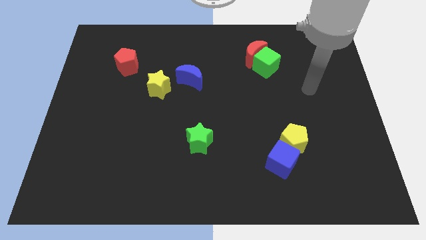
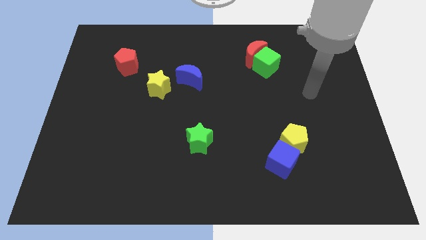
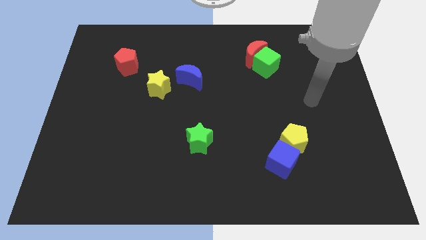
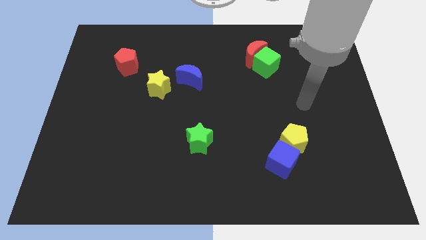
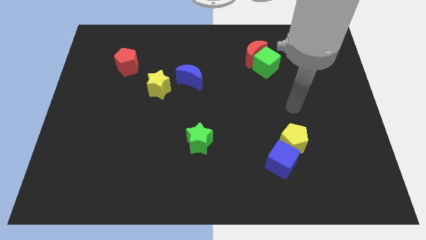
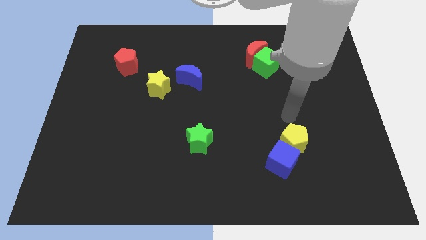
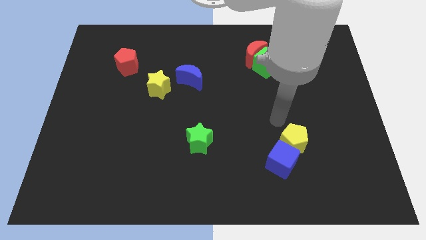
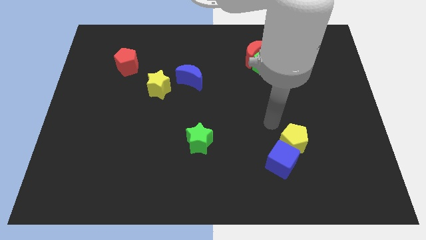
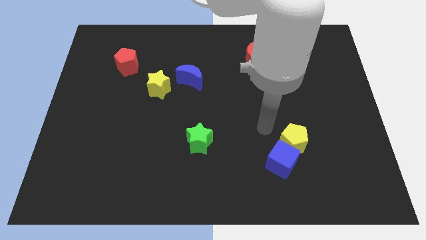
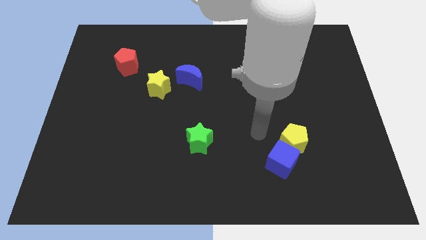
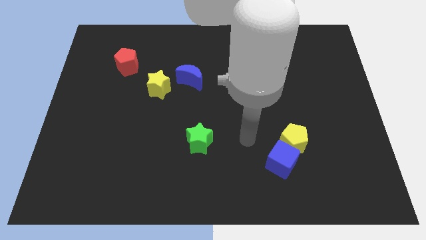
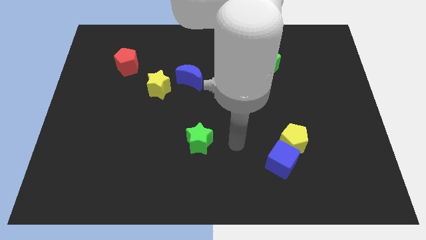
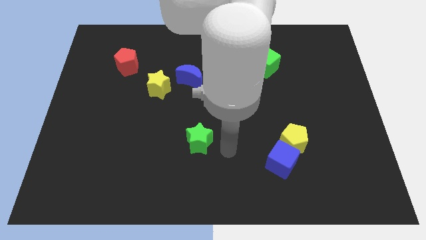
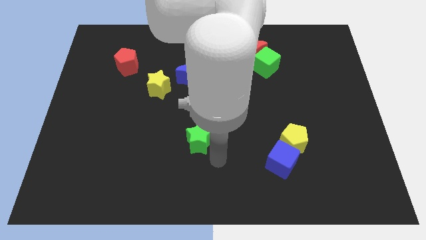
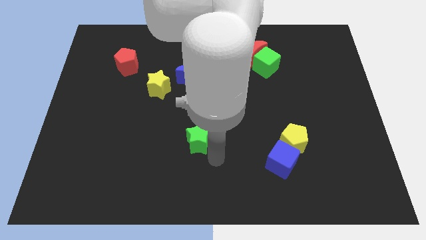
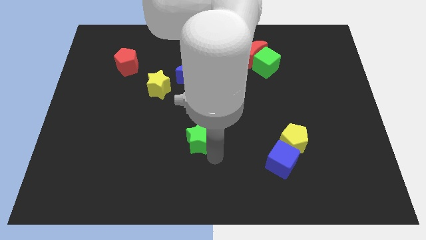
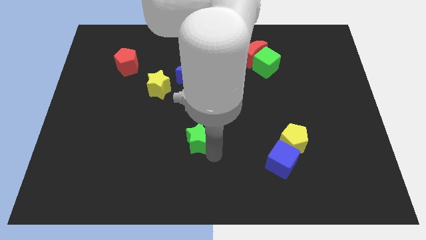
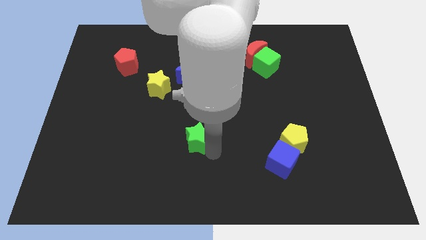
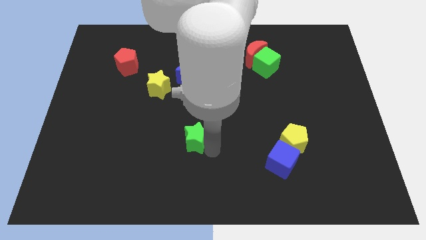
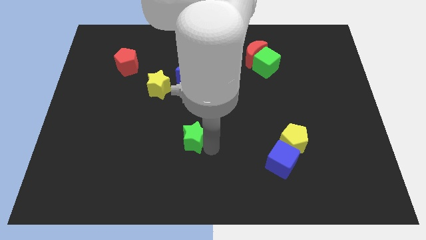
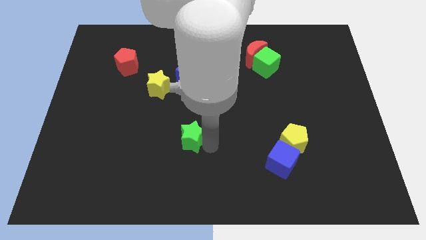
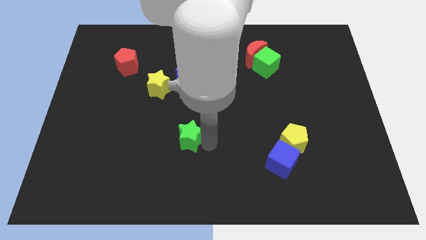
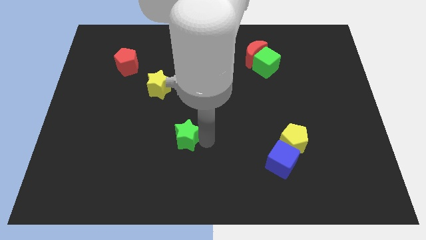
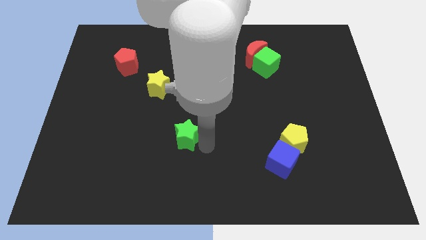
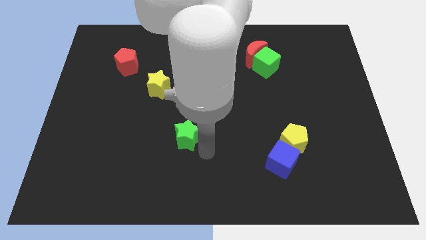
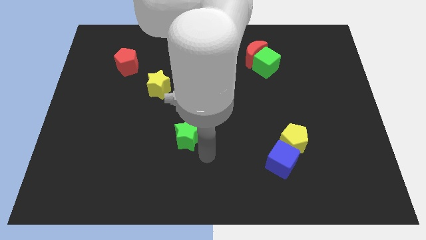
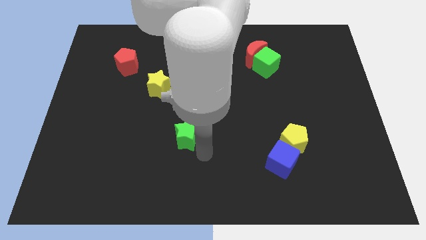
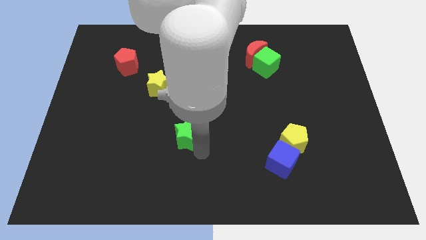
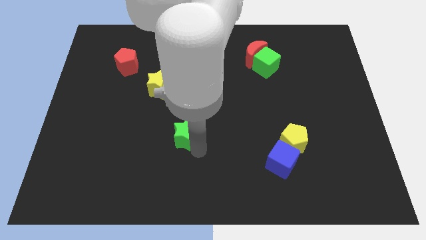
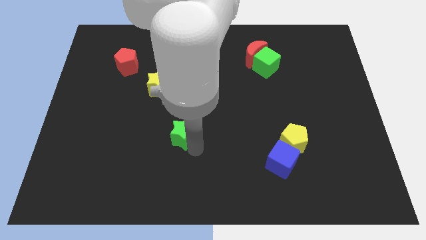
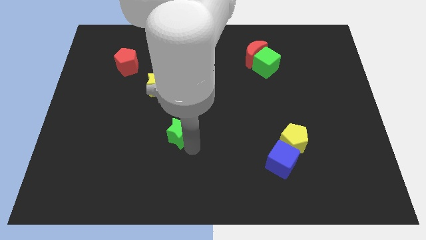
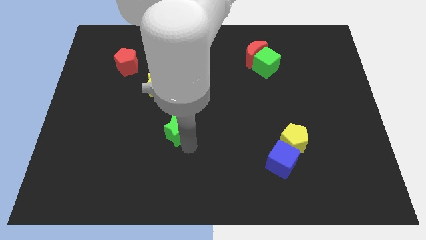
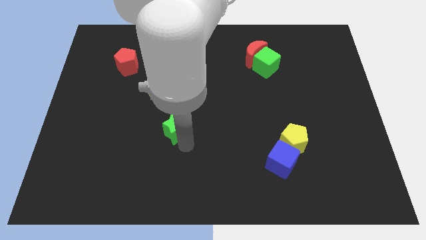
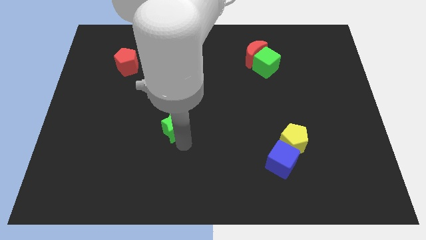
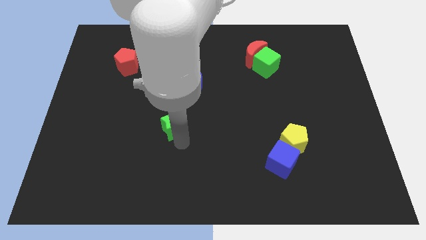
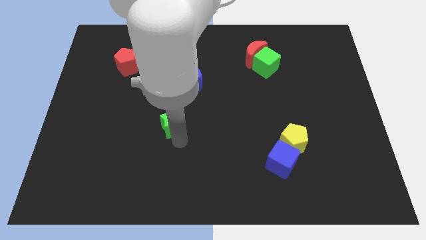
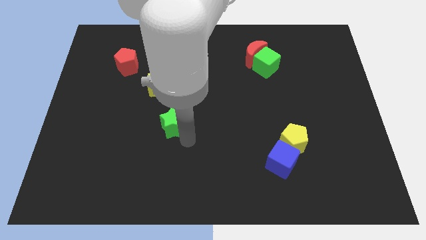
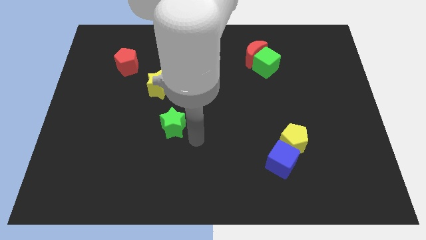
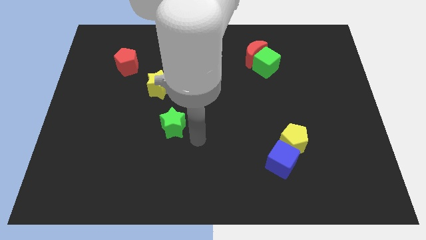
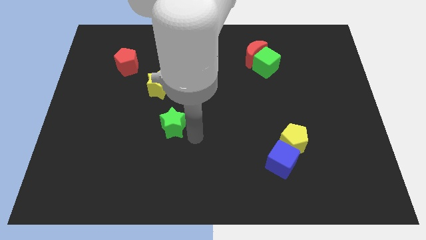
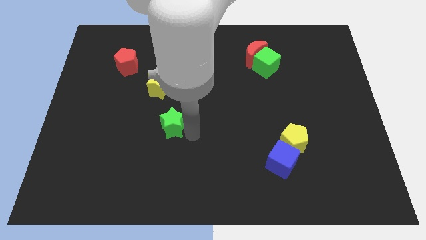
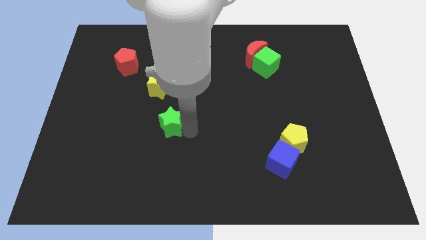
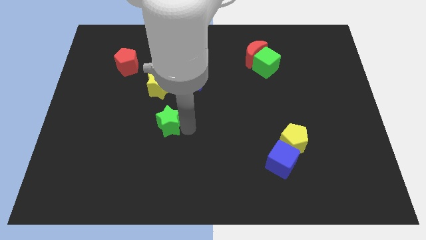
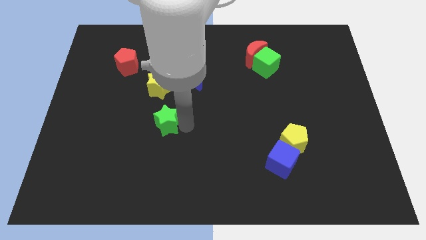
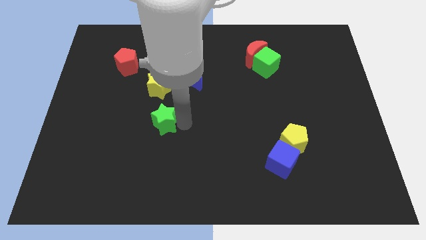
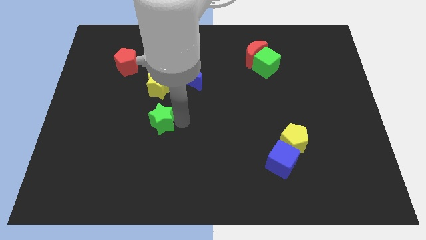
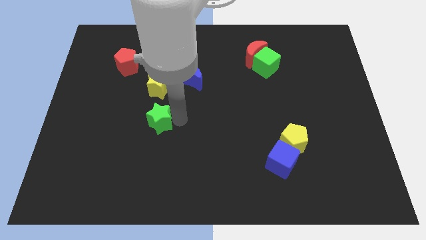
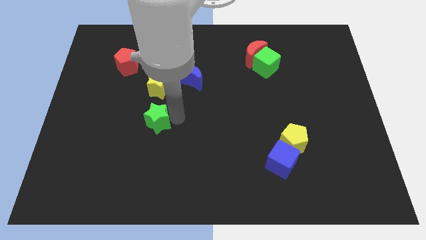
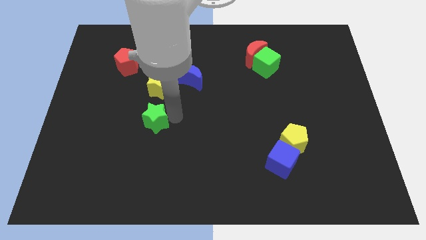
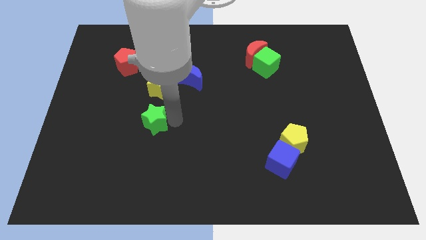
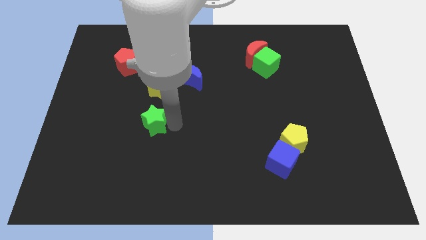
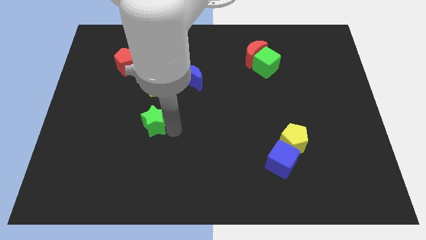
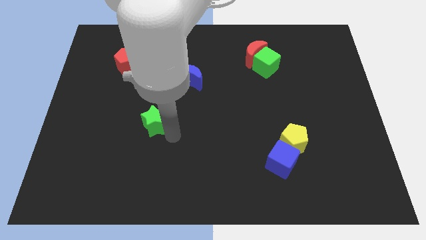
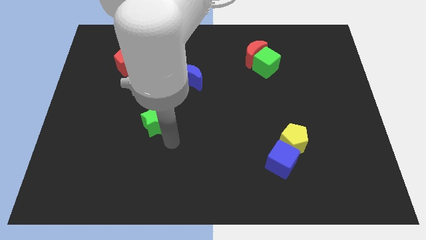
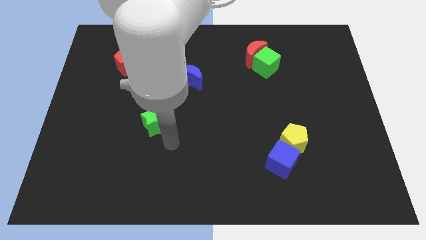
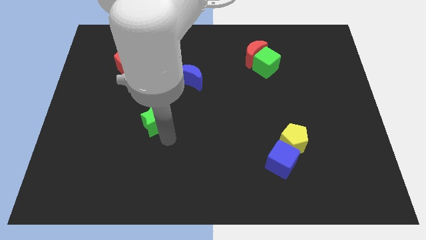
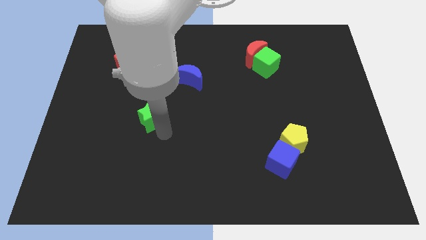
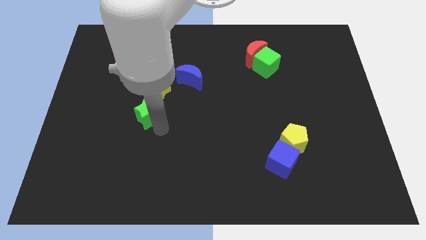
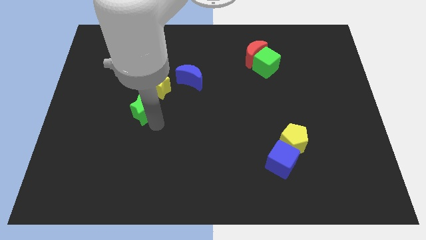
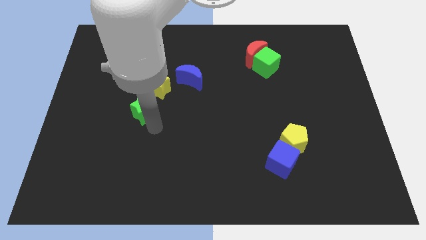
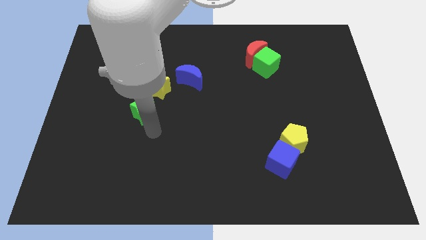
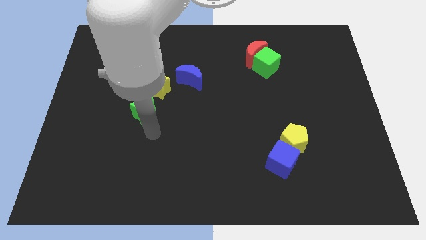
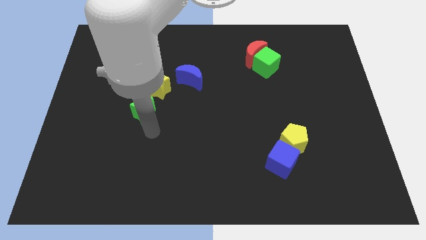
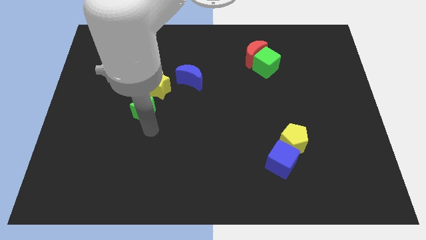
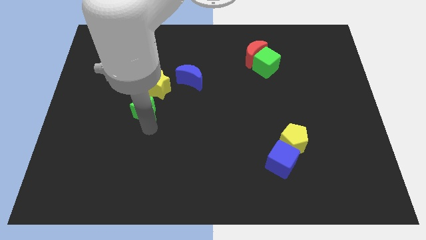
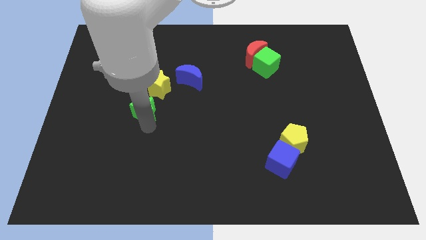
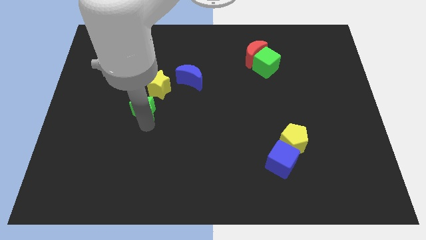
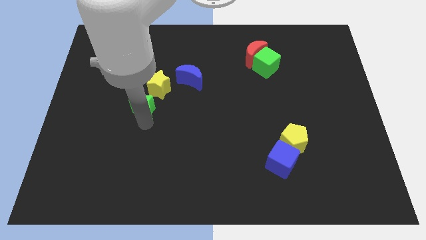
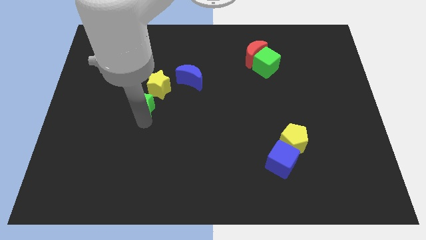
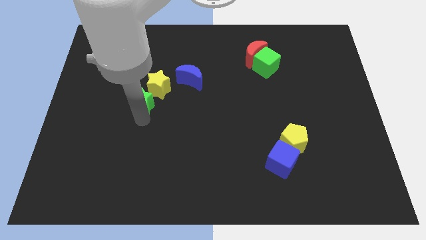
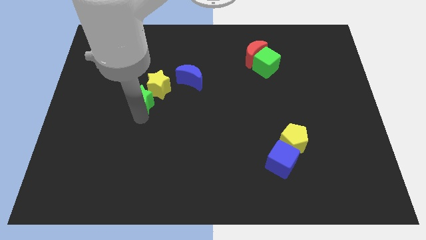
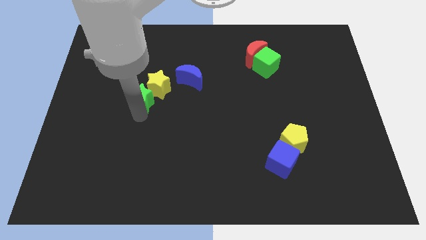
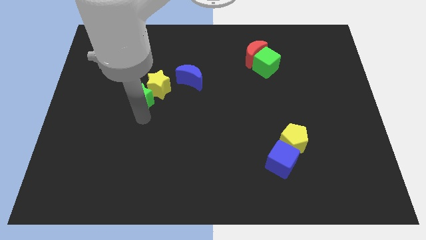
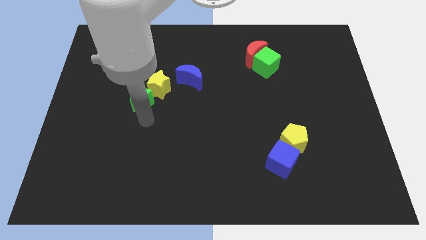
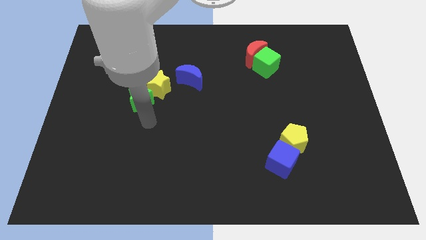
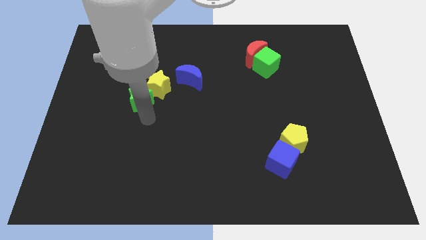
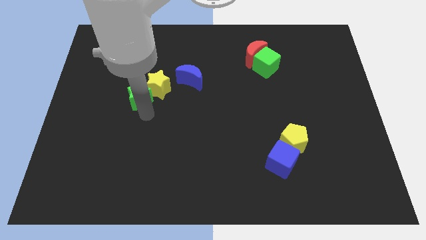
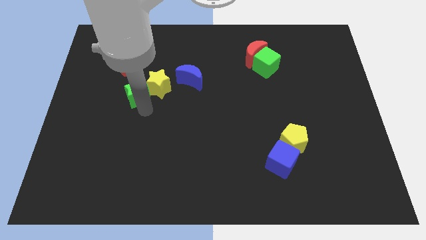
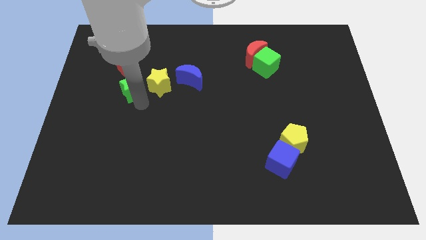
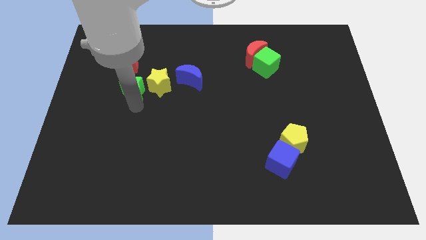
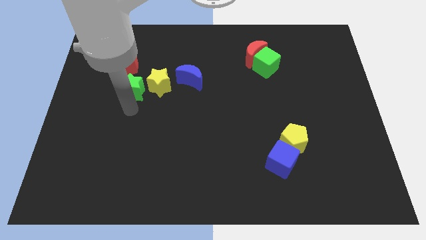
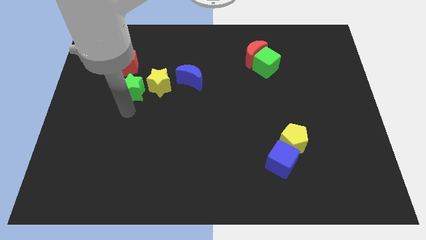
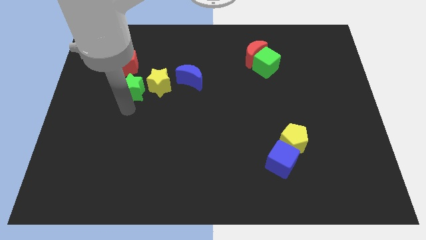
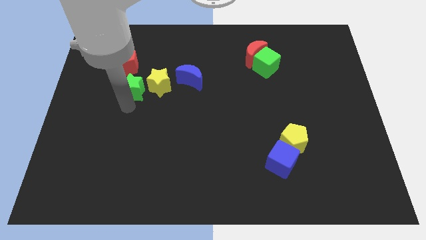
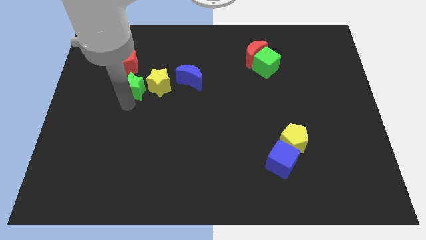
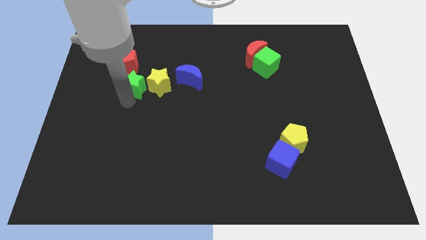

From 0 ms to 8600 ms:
put the green star diagonally up and to the left of the yellow star
